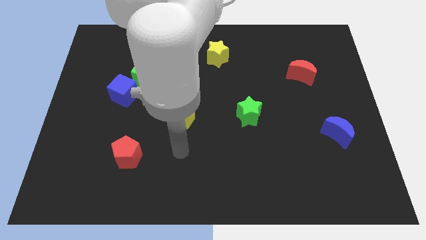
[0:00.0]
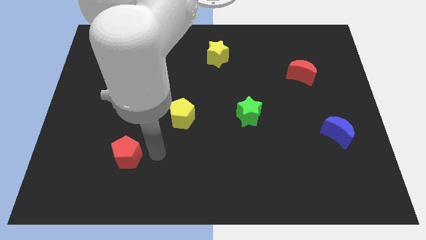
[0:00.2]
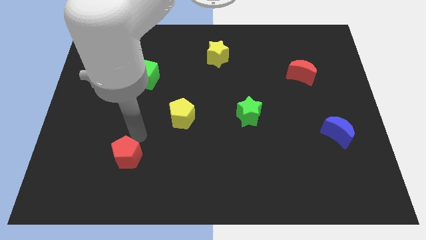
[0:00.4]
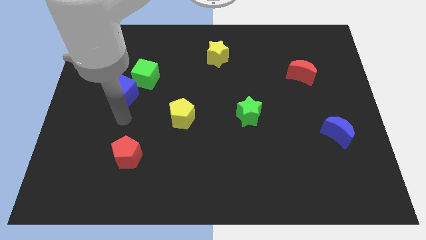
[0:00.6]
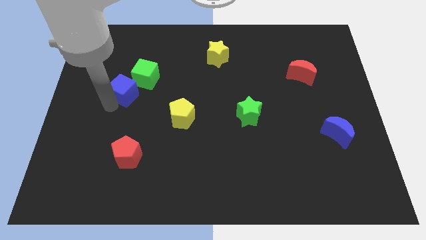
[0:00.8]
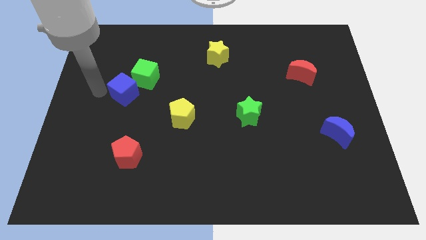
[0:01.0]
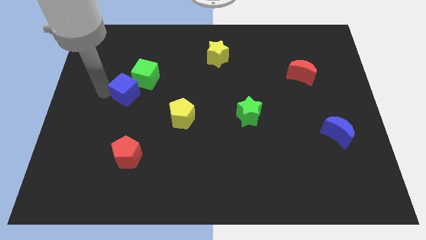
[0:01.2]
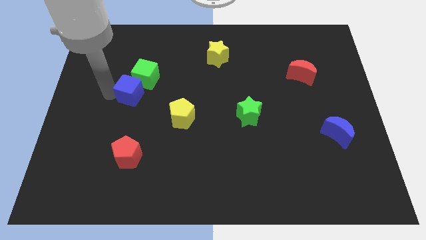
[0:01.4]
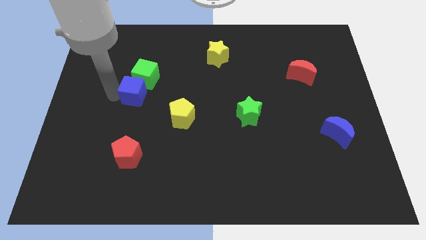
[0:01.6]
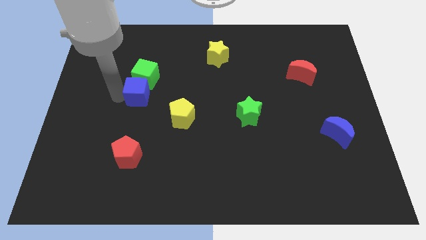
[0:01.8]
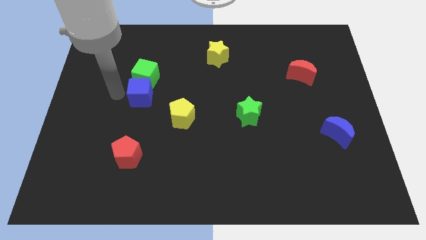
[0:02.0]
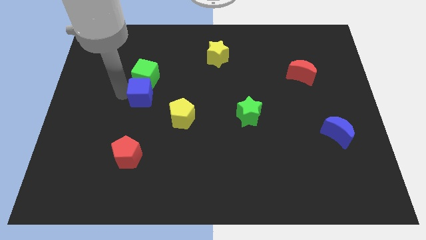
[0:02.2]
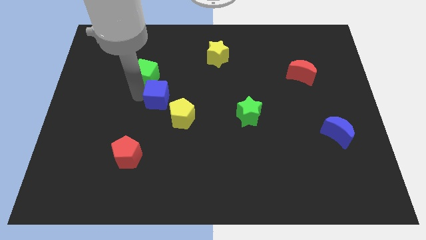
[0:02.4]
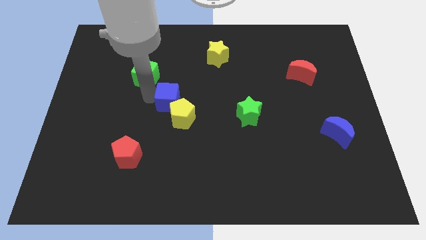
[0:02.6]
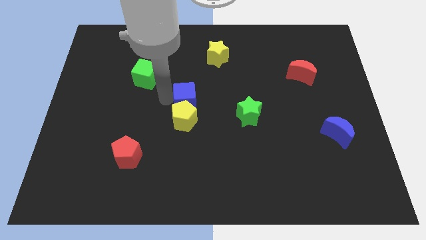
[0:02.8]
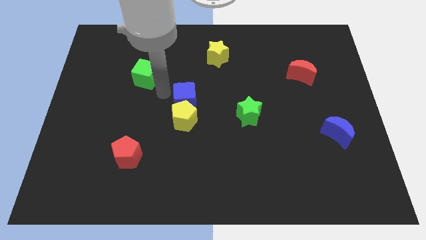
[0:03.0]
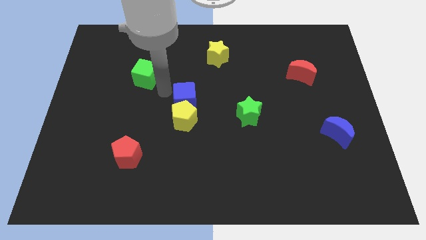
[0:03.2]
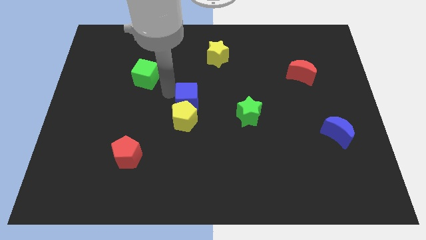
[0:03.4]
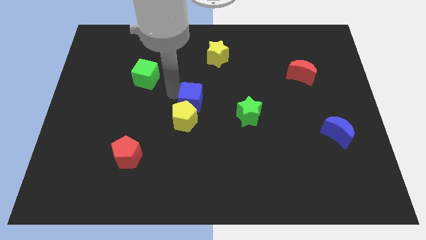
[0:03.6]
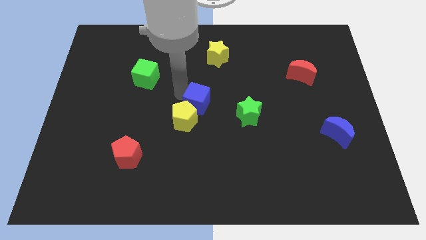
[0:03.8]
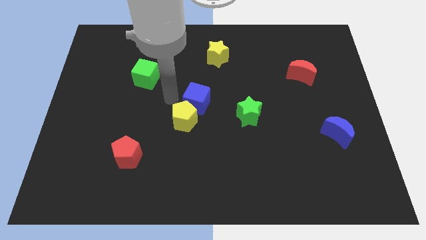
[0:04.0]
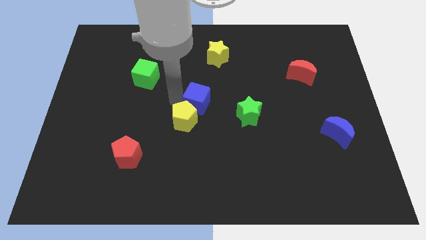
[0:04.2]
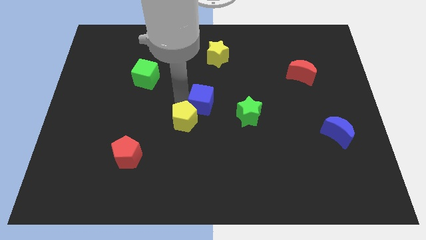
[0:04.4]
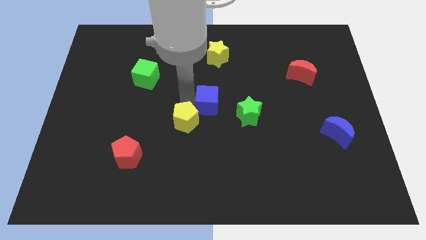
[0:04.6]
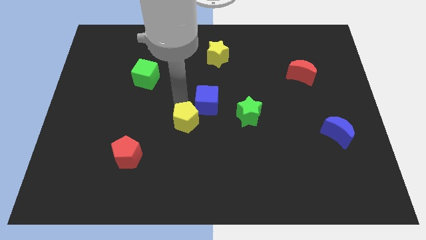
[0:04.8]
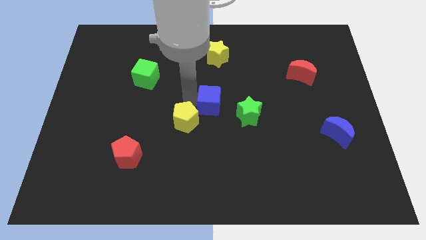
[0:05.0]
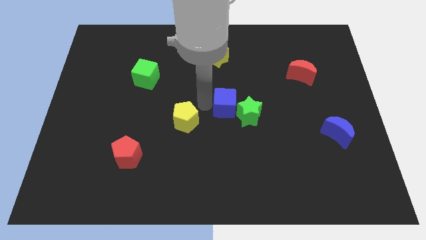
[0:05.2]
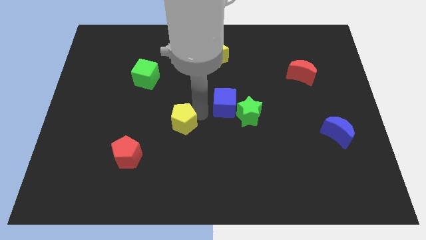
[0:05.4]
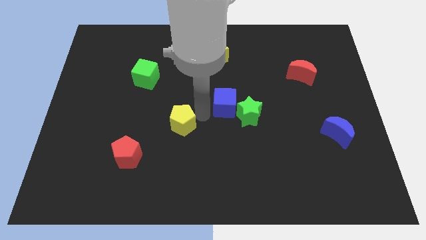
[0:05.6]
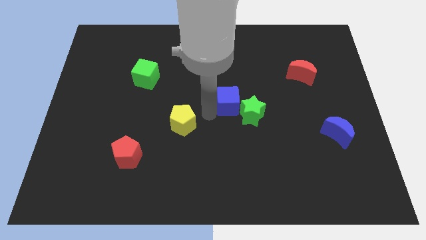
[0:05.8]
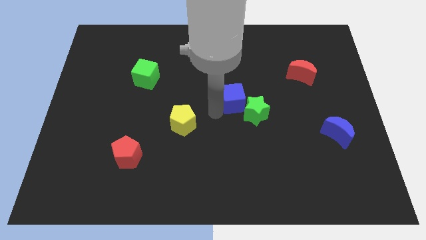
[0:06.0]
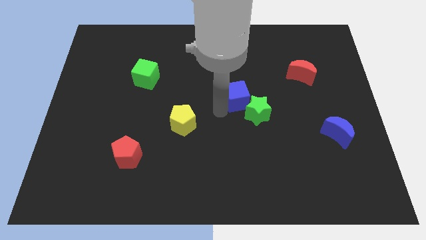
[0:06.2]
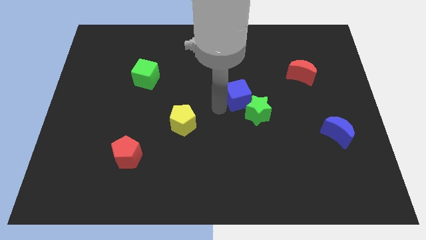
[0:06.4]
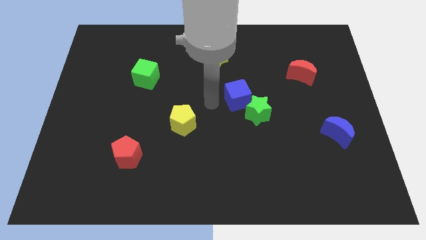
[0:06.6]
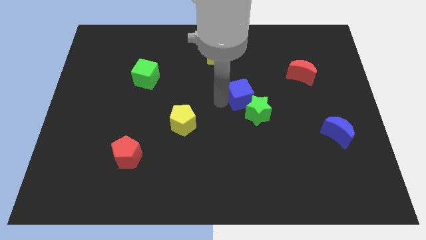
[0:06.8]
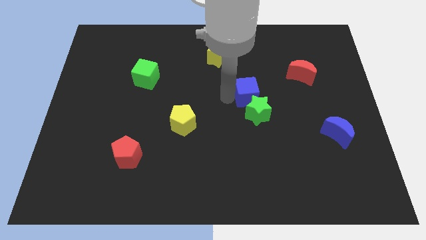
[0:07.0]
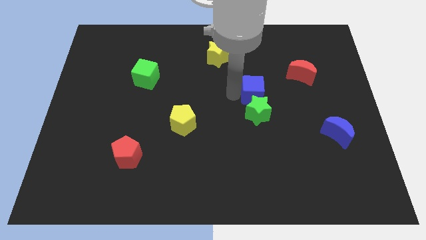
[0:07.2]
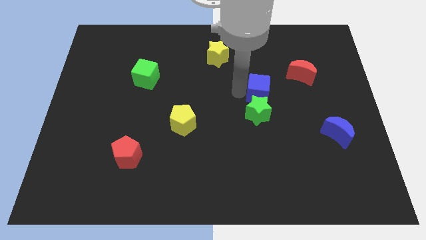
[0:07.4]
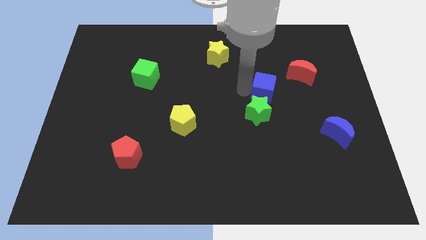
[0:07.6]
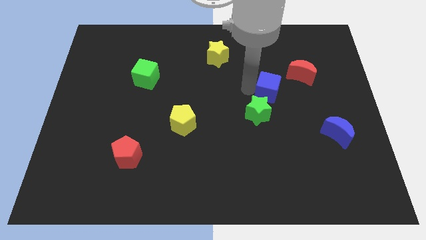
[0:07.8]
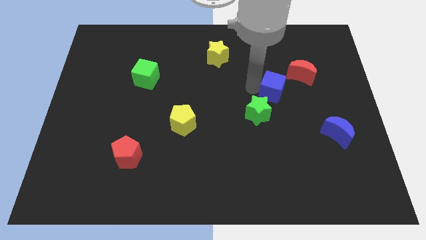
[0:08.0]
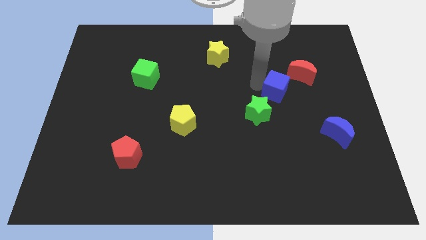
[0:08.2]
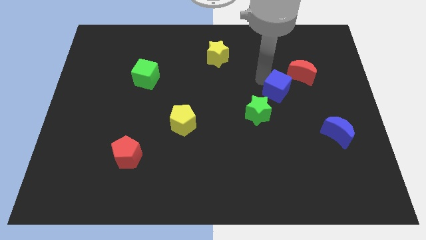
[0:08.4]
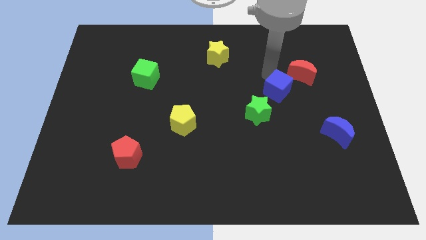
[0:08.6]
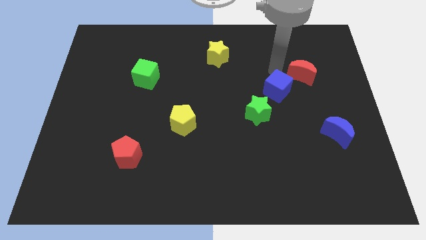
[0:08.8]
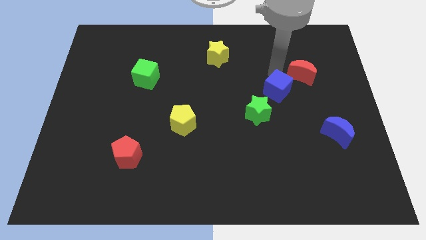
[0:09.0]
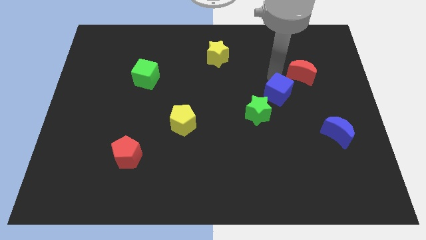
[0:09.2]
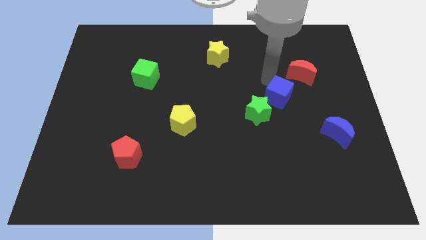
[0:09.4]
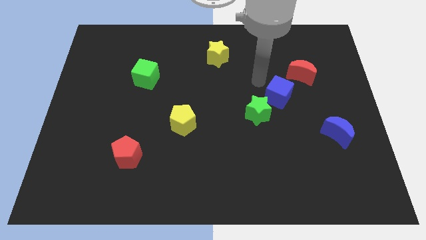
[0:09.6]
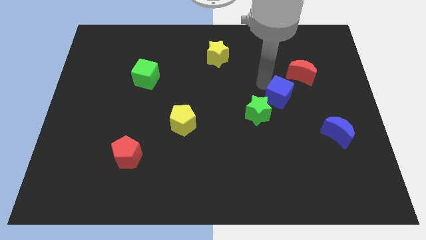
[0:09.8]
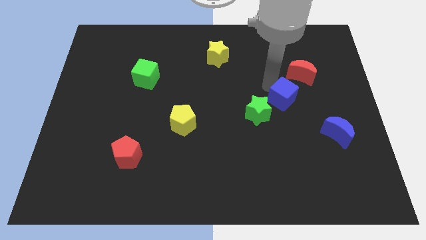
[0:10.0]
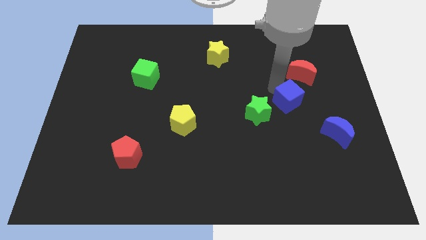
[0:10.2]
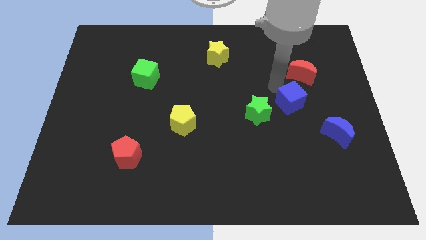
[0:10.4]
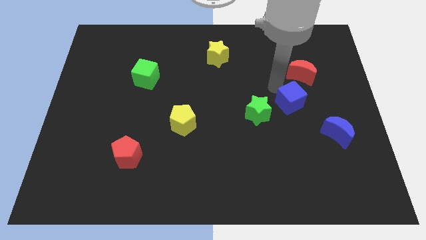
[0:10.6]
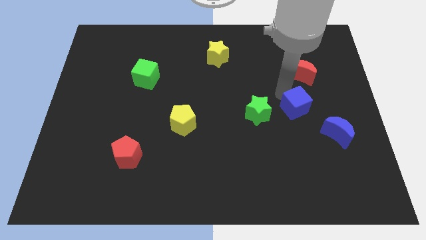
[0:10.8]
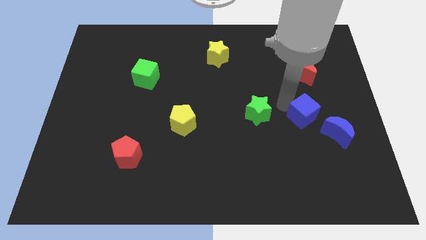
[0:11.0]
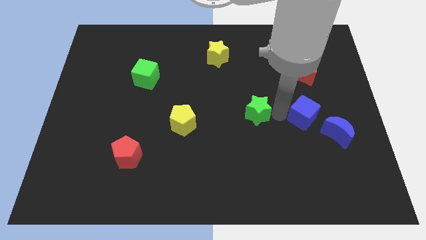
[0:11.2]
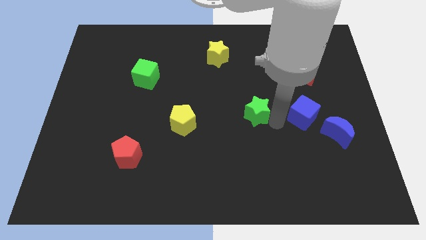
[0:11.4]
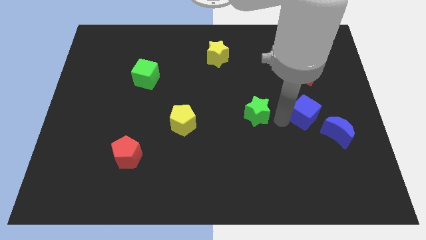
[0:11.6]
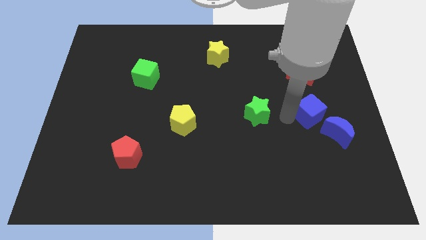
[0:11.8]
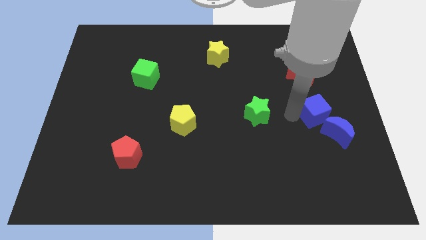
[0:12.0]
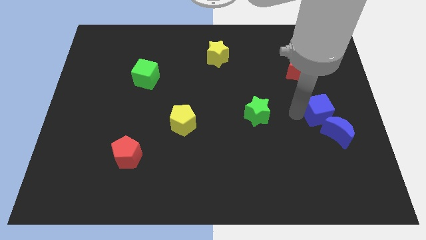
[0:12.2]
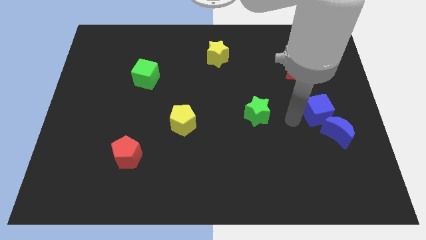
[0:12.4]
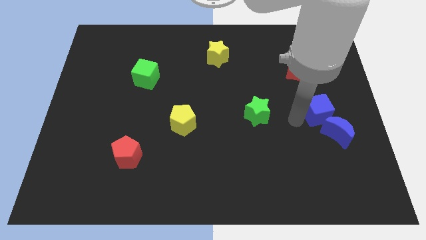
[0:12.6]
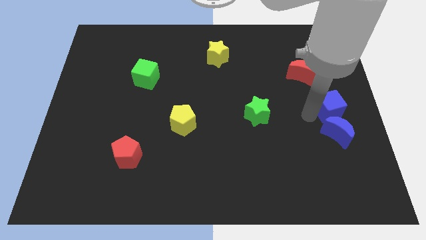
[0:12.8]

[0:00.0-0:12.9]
push the blue cube to the right side
